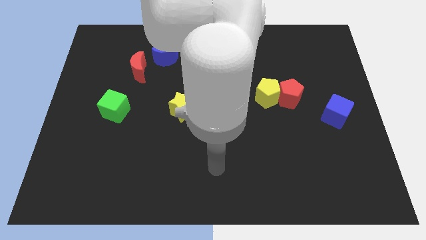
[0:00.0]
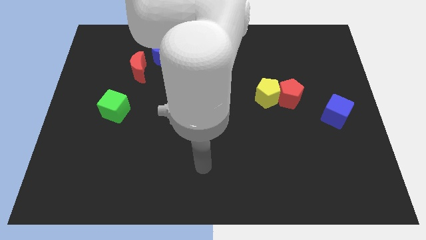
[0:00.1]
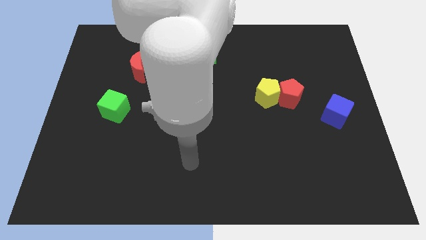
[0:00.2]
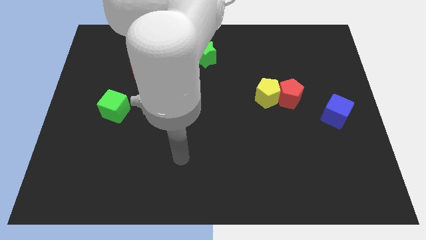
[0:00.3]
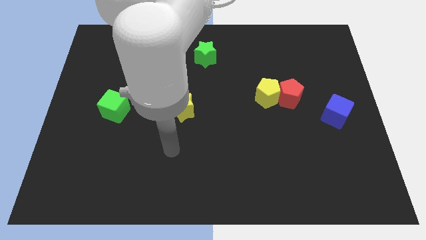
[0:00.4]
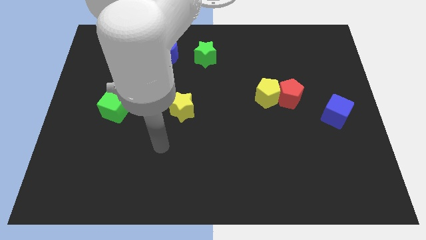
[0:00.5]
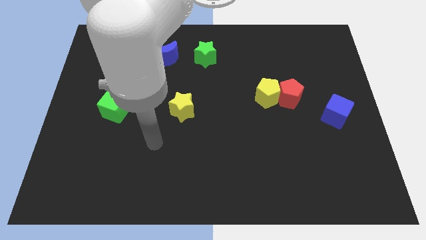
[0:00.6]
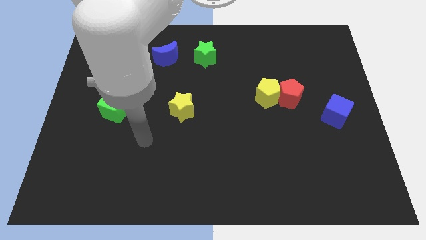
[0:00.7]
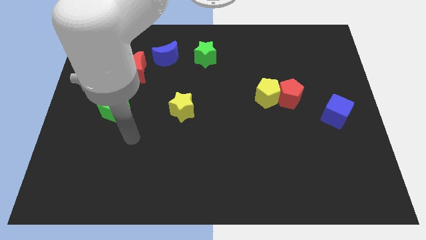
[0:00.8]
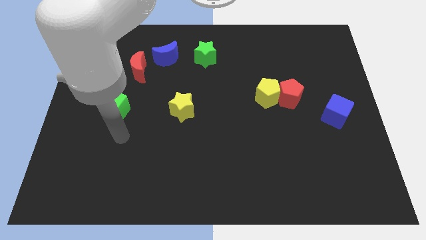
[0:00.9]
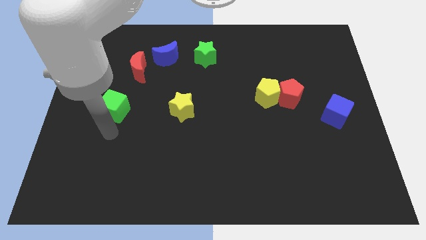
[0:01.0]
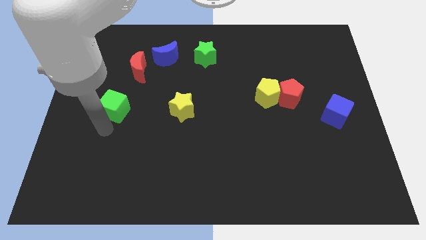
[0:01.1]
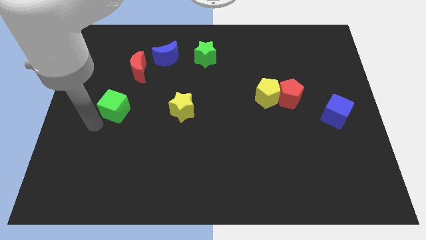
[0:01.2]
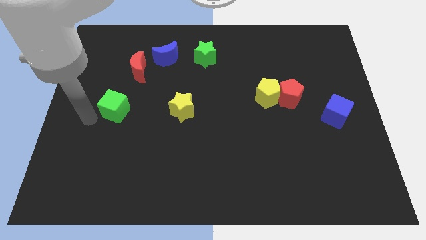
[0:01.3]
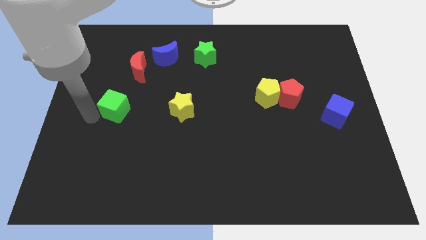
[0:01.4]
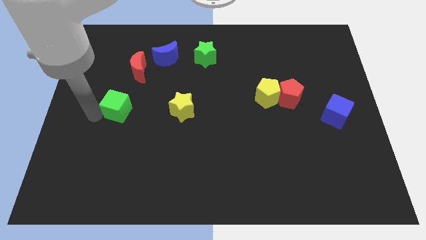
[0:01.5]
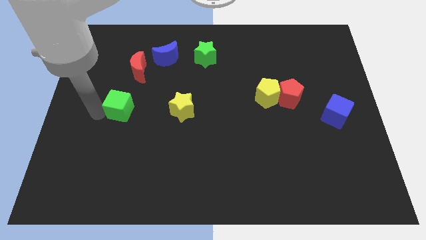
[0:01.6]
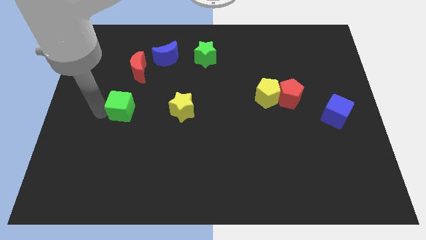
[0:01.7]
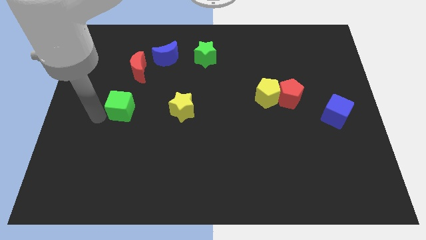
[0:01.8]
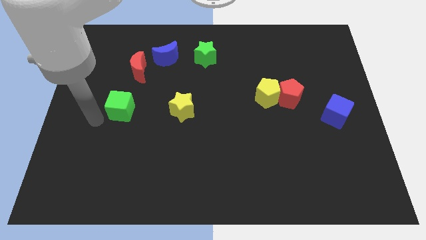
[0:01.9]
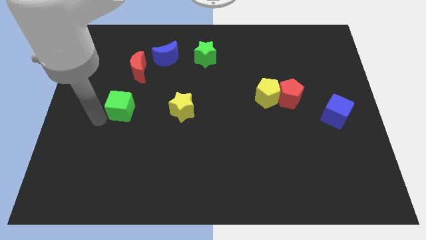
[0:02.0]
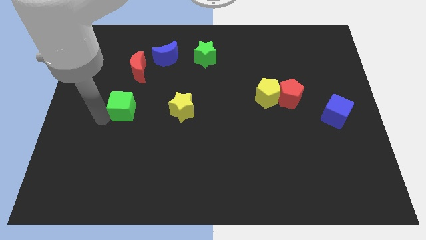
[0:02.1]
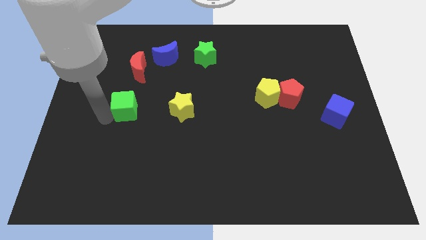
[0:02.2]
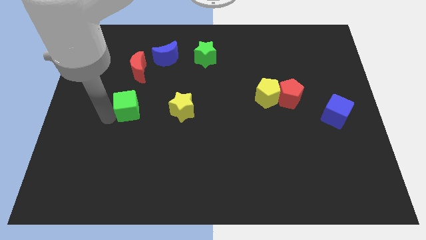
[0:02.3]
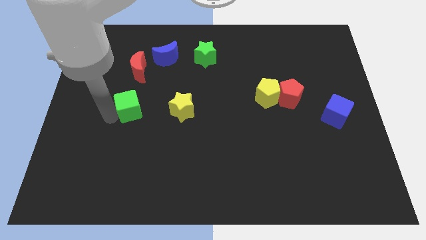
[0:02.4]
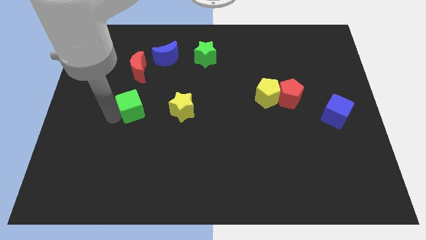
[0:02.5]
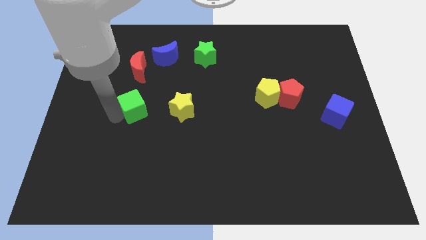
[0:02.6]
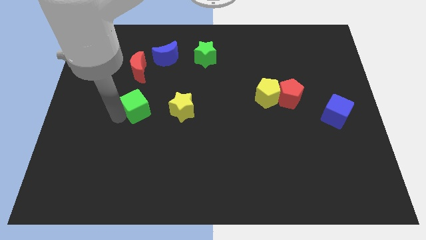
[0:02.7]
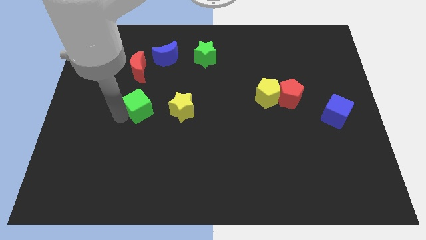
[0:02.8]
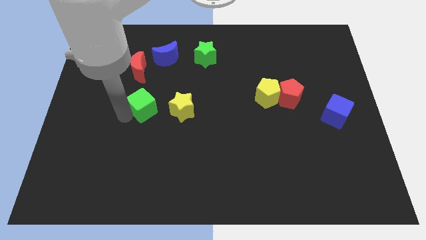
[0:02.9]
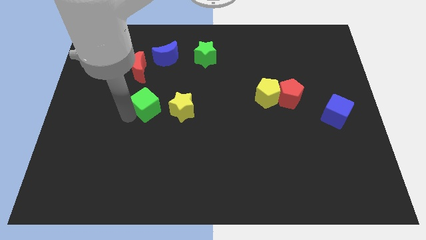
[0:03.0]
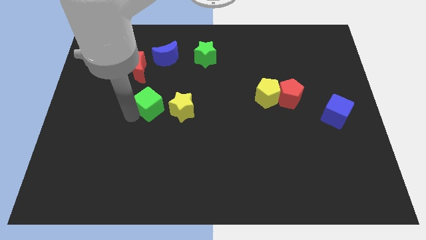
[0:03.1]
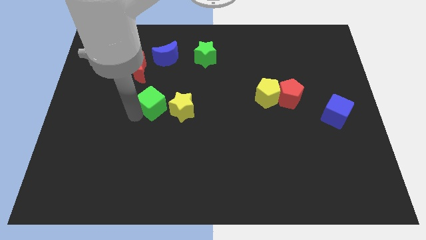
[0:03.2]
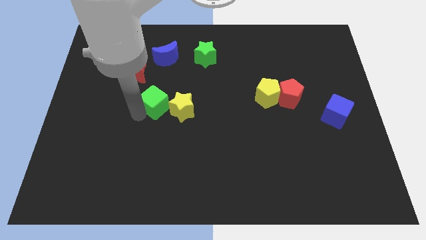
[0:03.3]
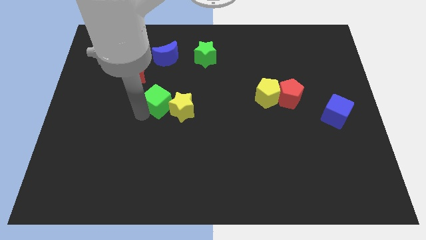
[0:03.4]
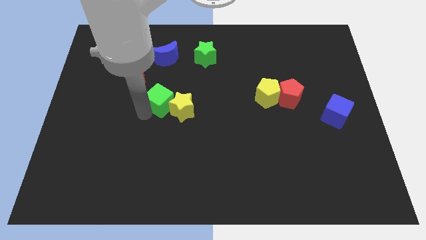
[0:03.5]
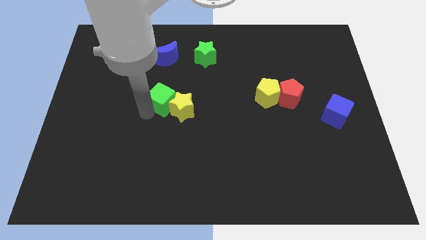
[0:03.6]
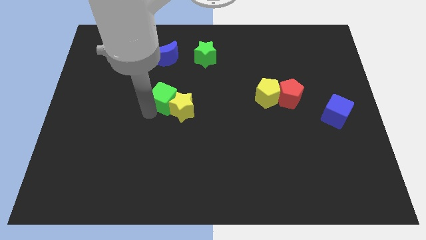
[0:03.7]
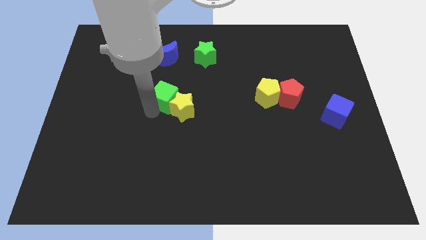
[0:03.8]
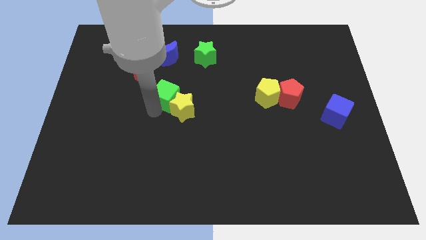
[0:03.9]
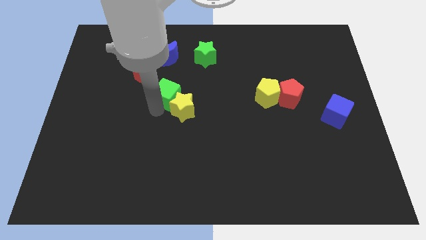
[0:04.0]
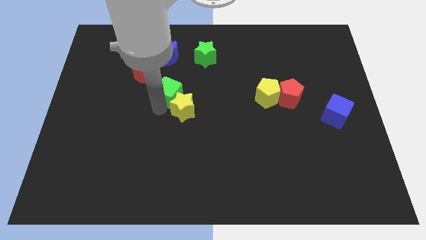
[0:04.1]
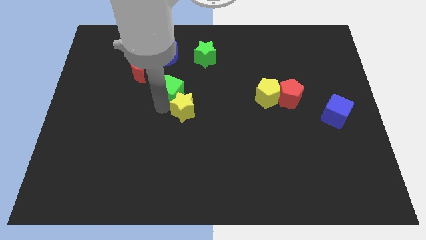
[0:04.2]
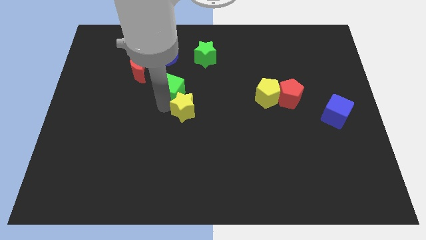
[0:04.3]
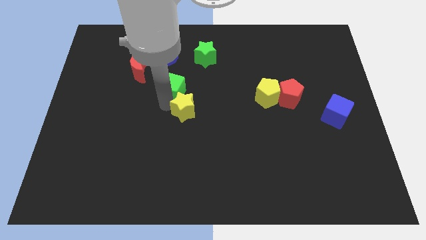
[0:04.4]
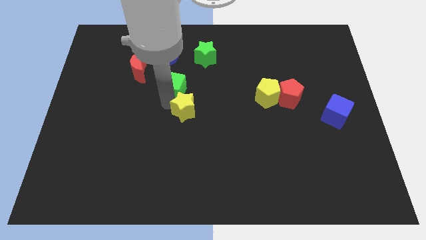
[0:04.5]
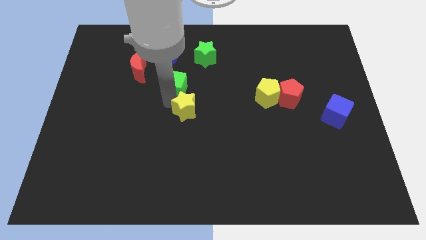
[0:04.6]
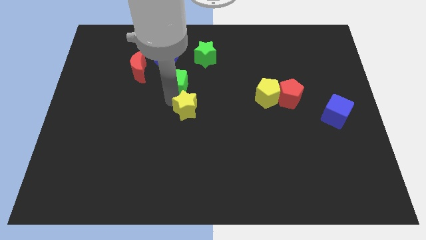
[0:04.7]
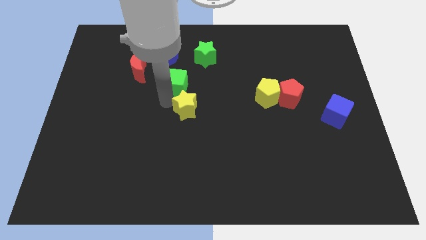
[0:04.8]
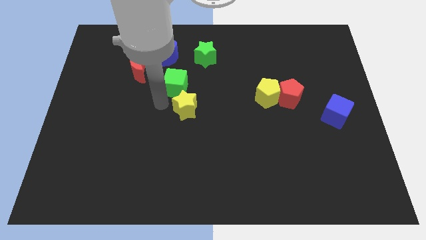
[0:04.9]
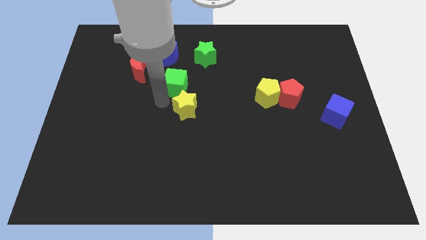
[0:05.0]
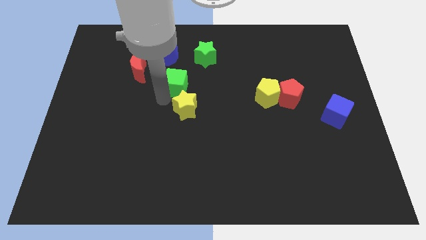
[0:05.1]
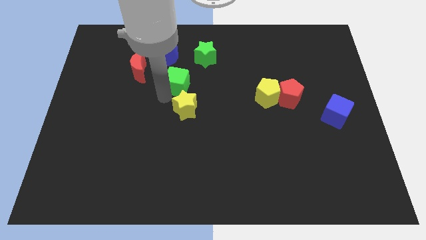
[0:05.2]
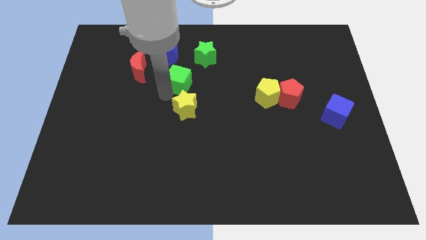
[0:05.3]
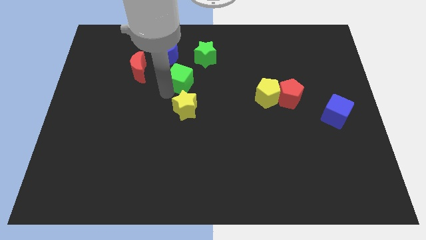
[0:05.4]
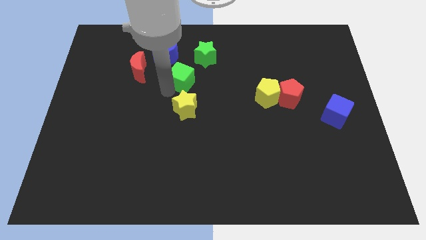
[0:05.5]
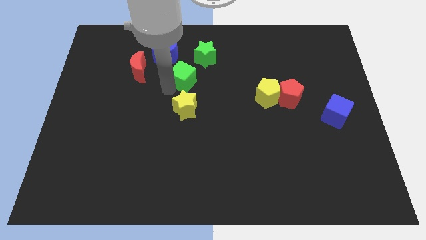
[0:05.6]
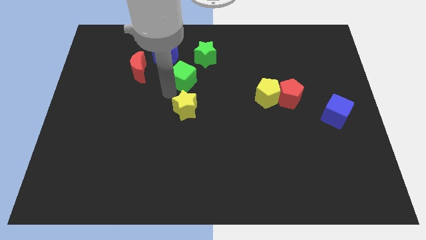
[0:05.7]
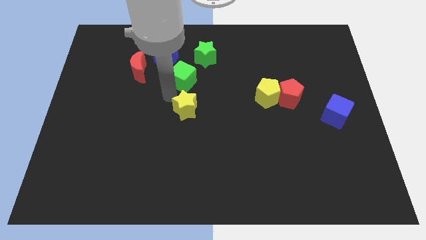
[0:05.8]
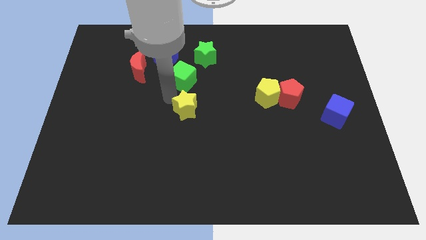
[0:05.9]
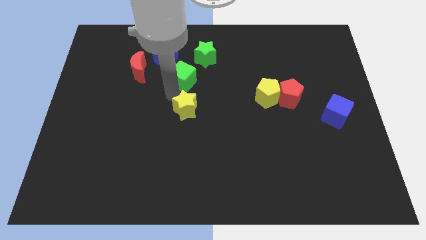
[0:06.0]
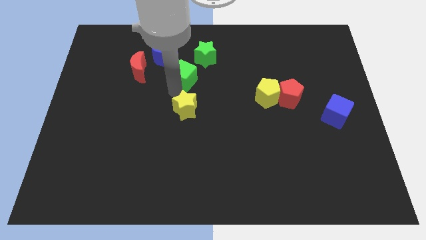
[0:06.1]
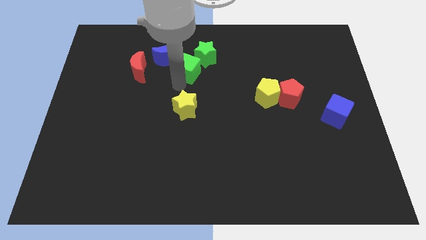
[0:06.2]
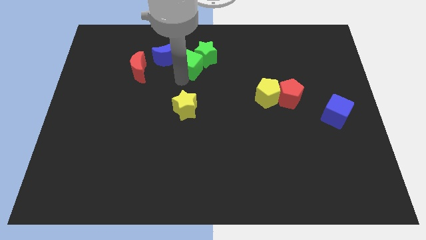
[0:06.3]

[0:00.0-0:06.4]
move the green cube towards the green star

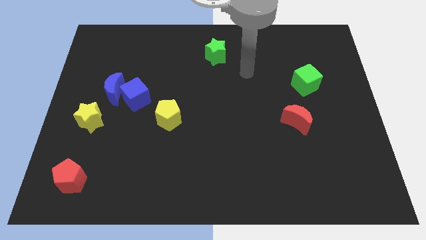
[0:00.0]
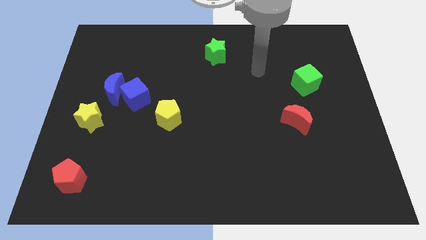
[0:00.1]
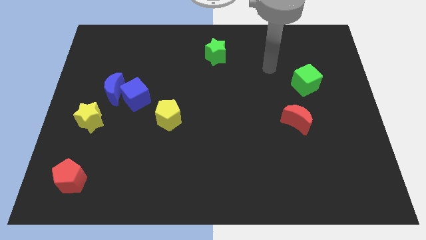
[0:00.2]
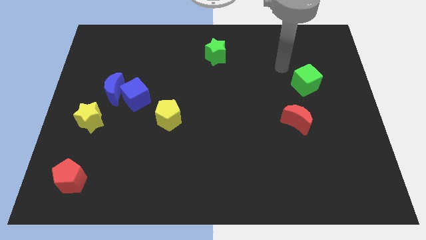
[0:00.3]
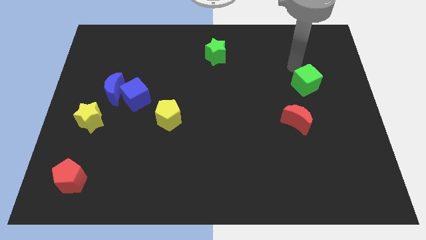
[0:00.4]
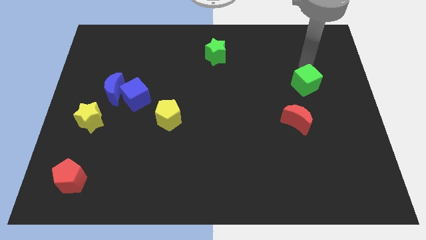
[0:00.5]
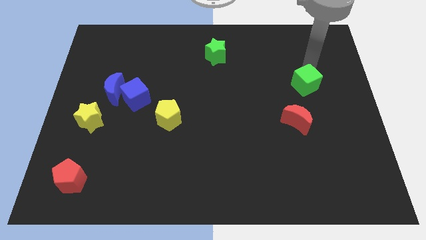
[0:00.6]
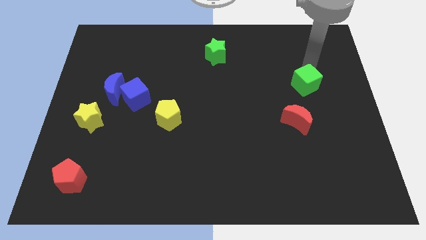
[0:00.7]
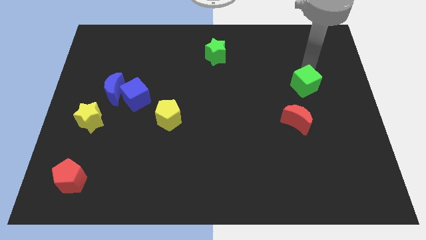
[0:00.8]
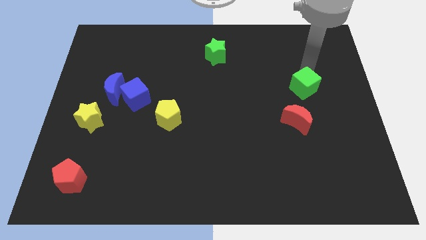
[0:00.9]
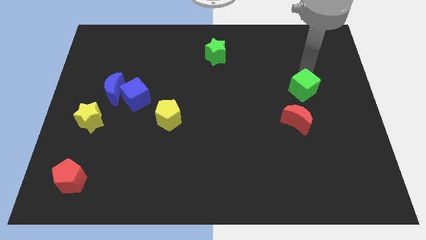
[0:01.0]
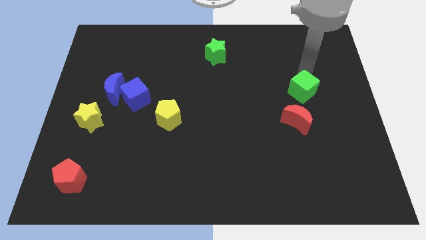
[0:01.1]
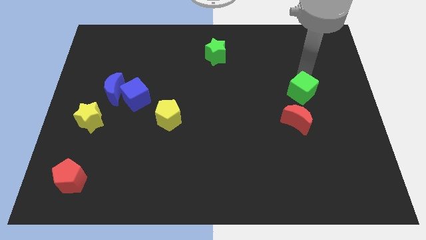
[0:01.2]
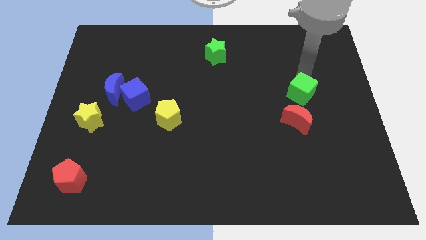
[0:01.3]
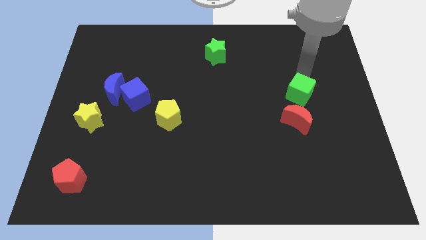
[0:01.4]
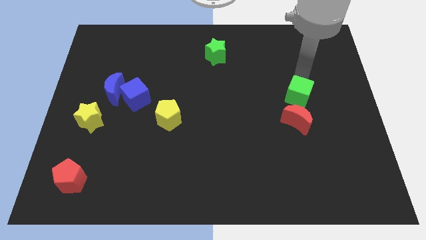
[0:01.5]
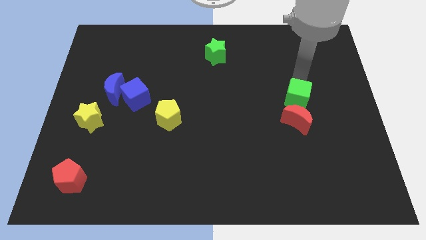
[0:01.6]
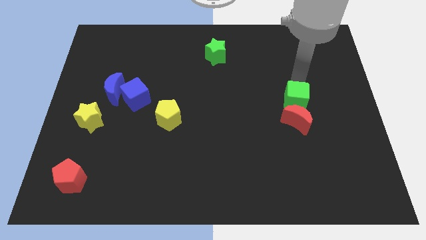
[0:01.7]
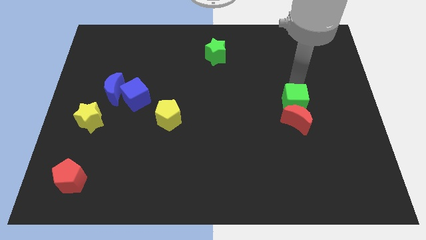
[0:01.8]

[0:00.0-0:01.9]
slide the green cube towards the red moon
